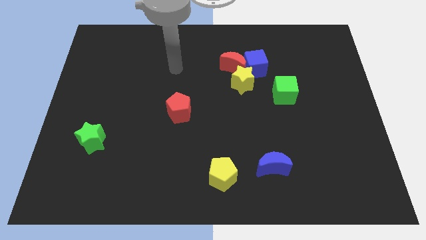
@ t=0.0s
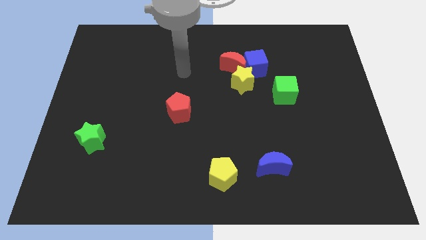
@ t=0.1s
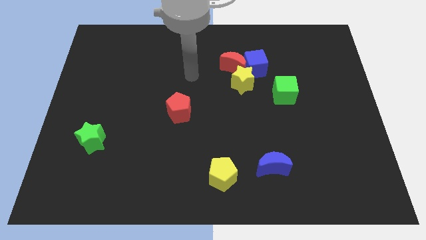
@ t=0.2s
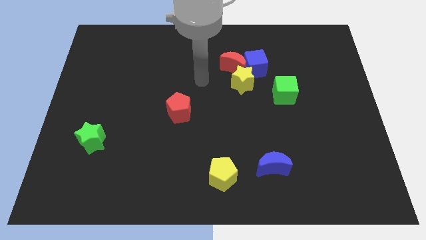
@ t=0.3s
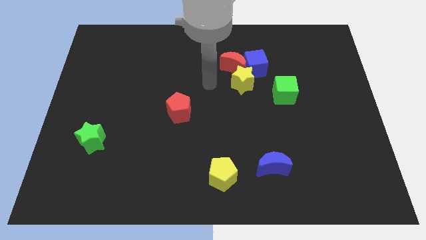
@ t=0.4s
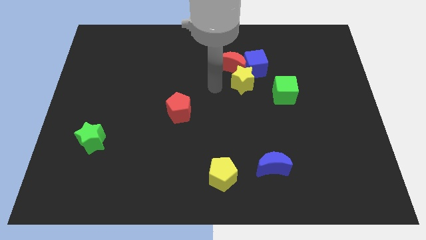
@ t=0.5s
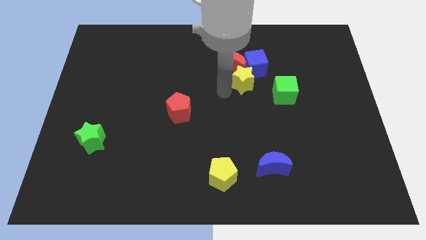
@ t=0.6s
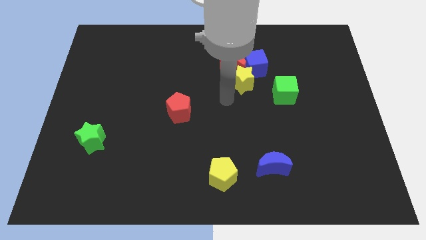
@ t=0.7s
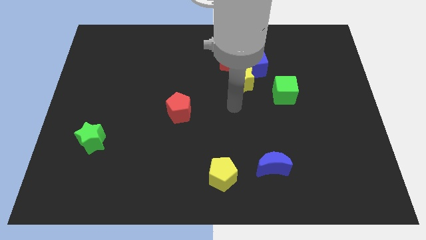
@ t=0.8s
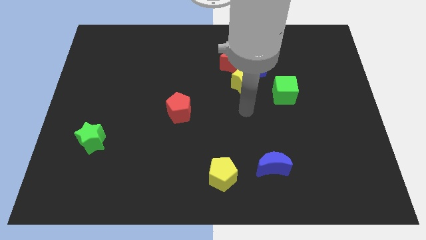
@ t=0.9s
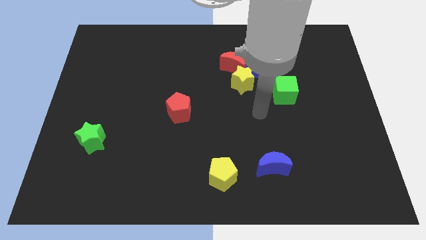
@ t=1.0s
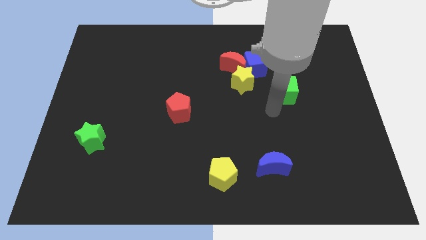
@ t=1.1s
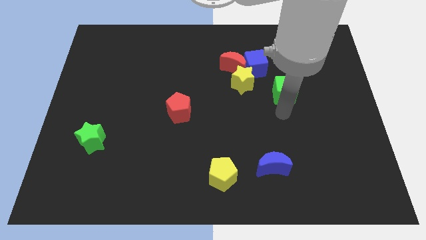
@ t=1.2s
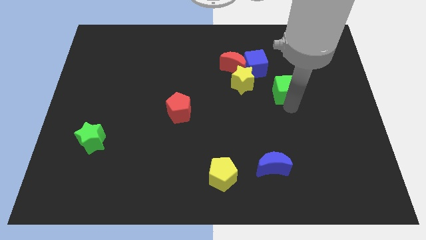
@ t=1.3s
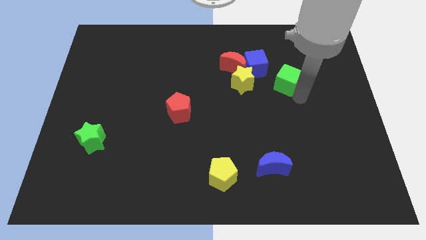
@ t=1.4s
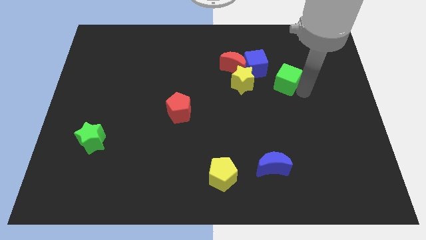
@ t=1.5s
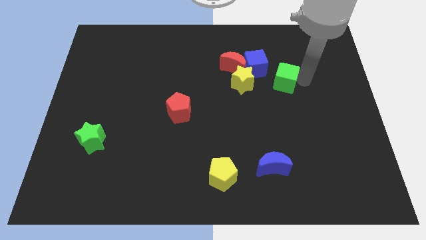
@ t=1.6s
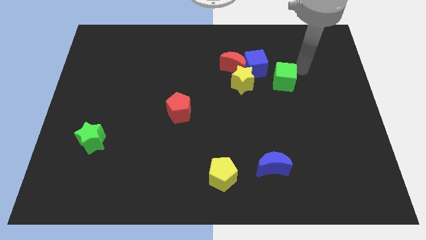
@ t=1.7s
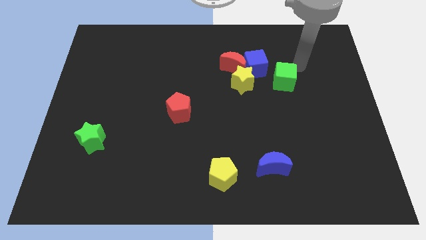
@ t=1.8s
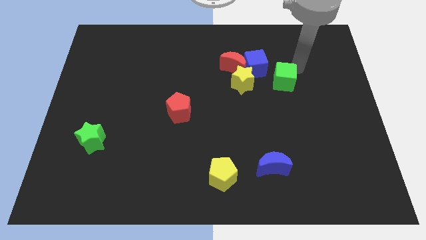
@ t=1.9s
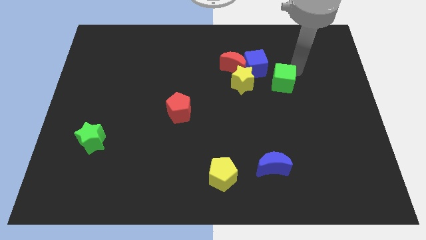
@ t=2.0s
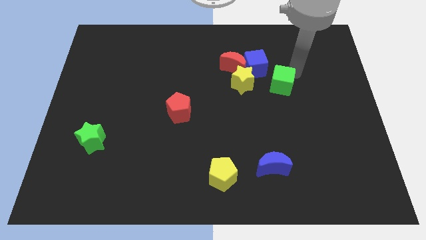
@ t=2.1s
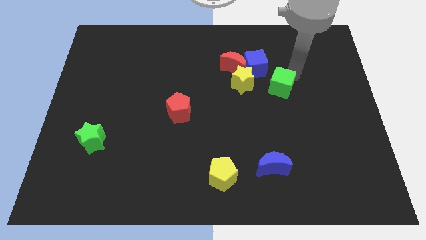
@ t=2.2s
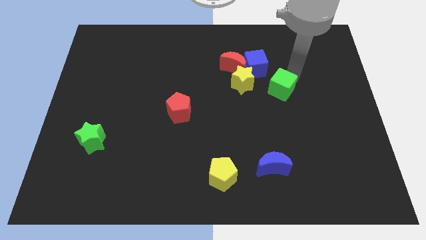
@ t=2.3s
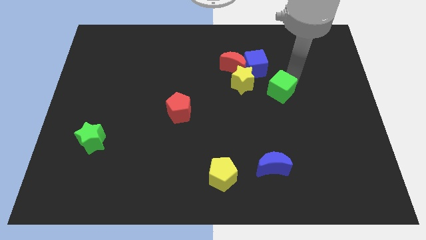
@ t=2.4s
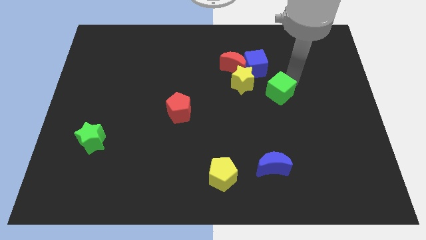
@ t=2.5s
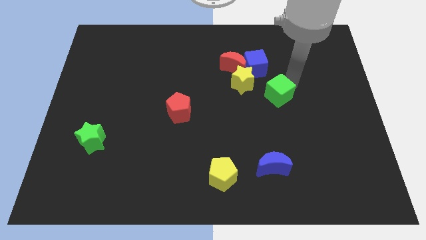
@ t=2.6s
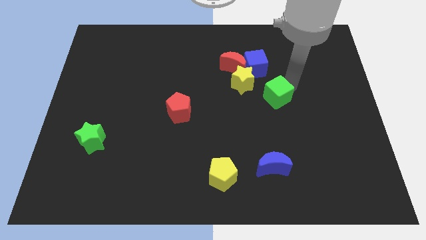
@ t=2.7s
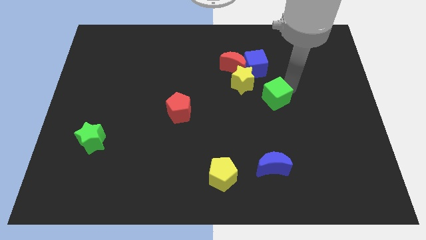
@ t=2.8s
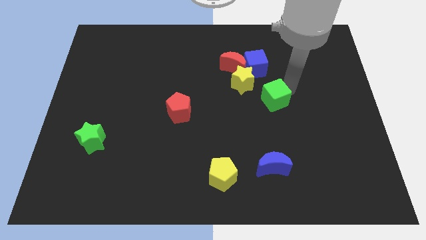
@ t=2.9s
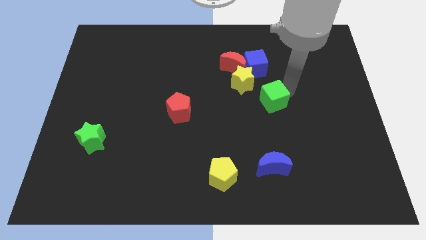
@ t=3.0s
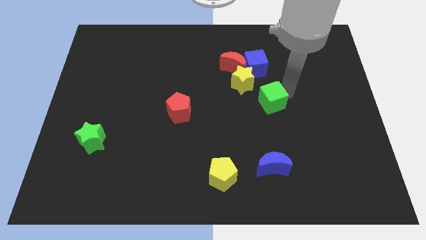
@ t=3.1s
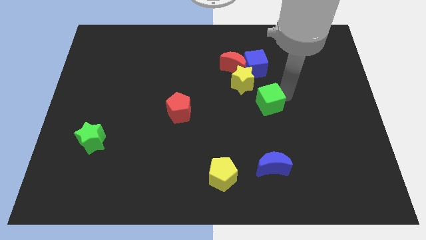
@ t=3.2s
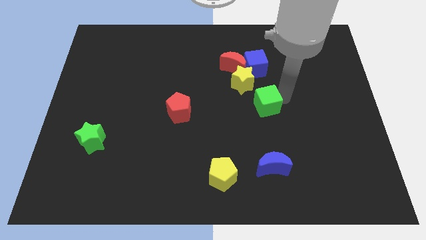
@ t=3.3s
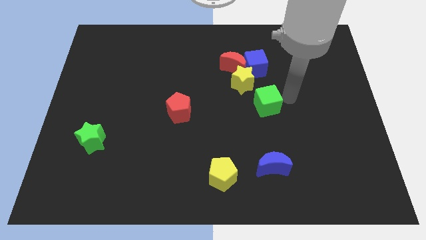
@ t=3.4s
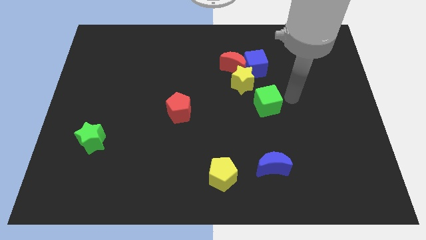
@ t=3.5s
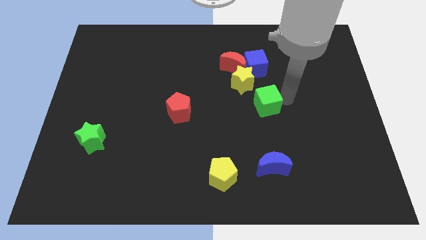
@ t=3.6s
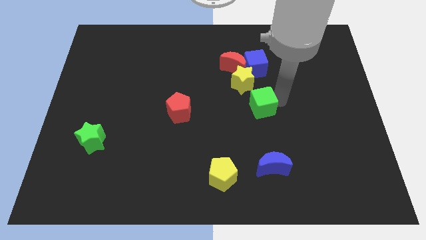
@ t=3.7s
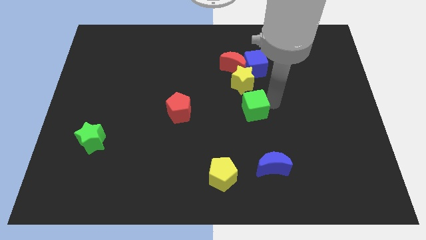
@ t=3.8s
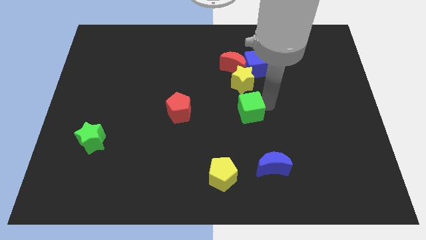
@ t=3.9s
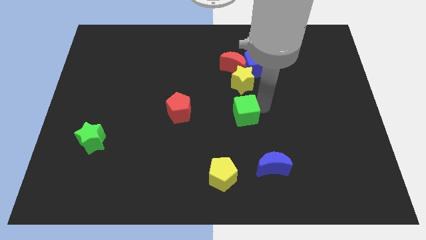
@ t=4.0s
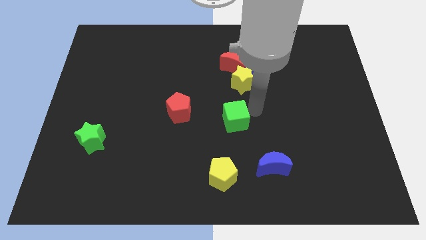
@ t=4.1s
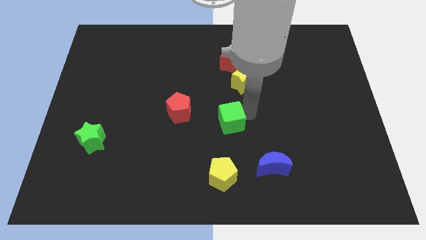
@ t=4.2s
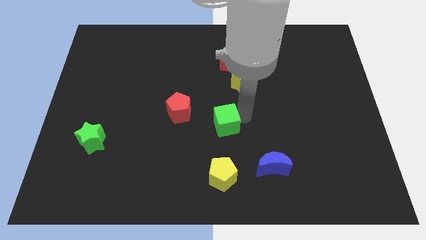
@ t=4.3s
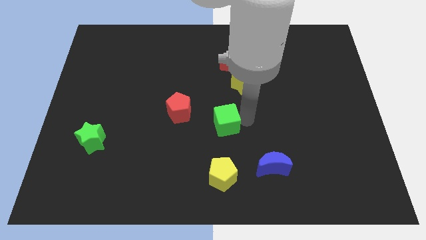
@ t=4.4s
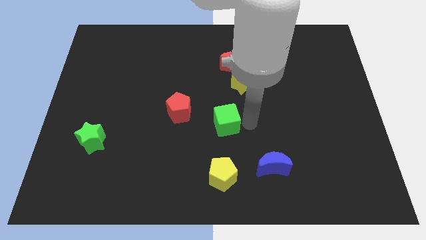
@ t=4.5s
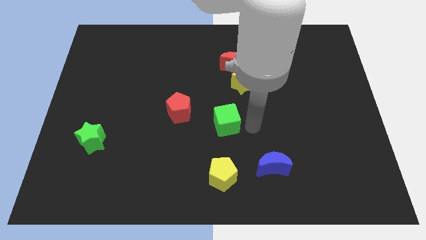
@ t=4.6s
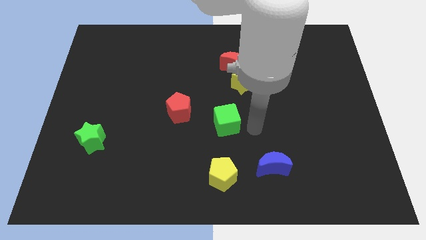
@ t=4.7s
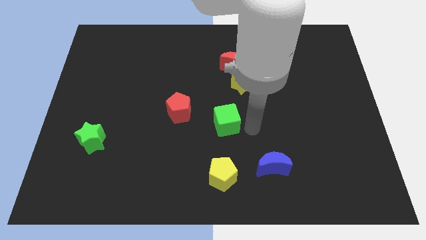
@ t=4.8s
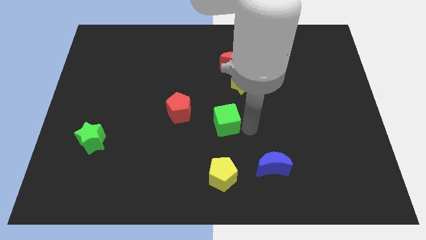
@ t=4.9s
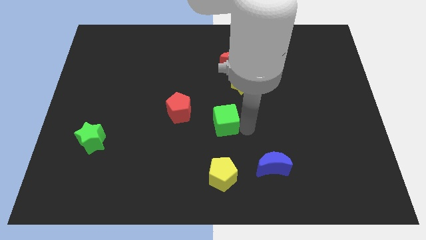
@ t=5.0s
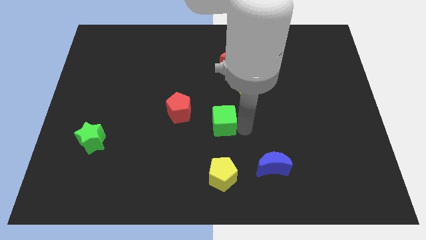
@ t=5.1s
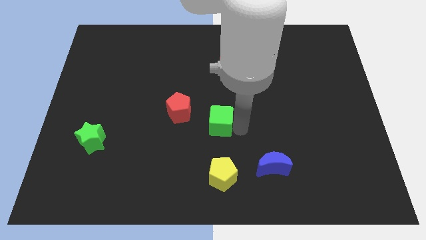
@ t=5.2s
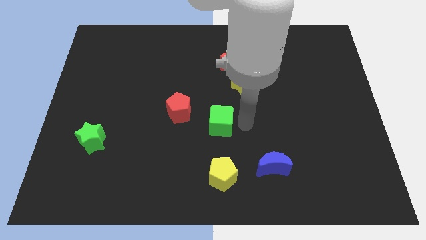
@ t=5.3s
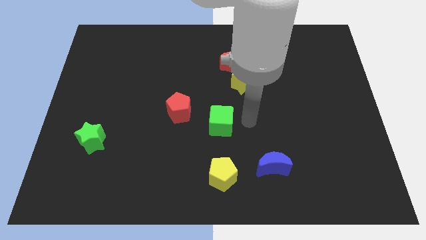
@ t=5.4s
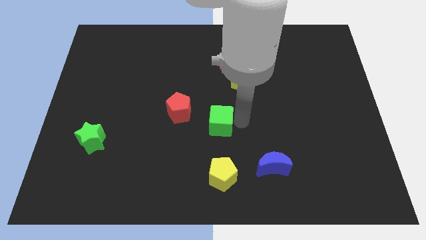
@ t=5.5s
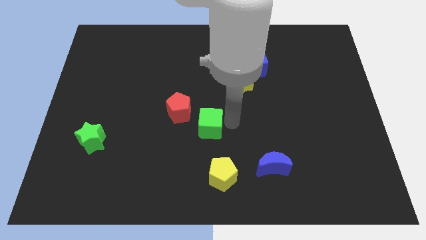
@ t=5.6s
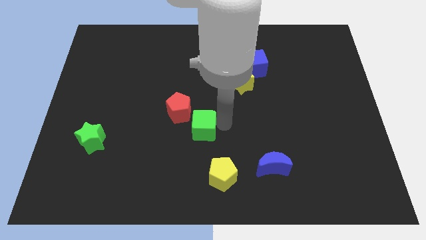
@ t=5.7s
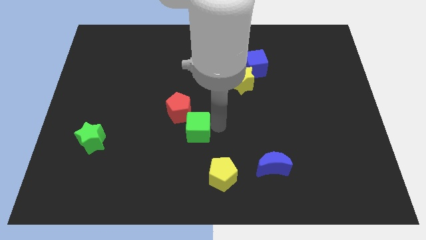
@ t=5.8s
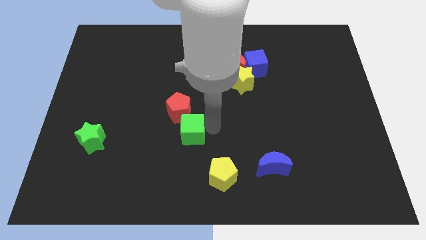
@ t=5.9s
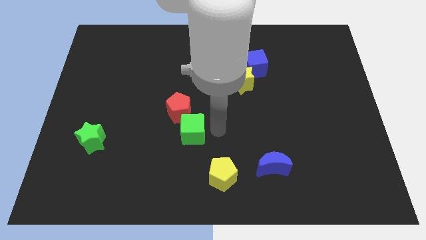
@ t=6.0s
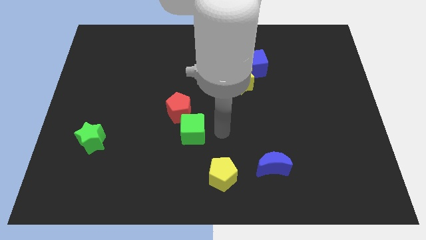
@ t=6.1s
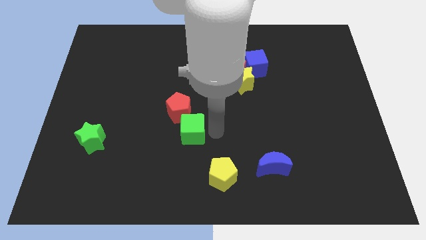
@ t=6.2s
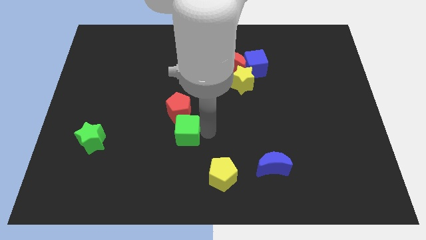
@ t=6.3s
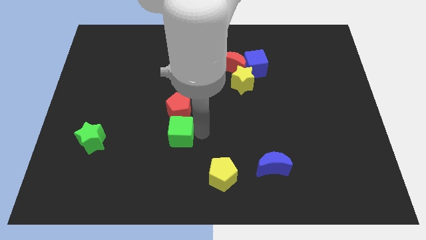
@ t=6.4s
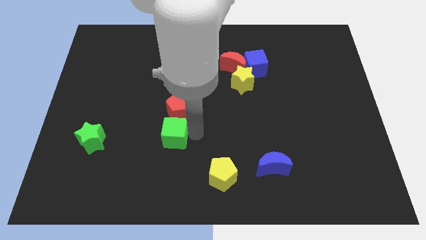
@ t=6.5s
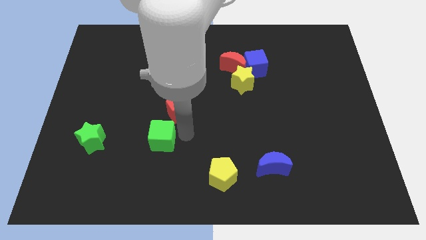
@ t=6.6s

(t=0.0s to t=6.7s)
move the green cube right of the green star

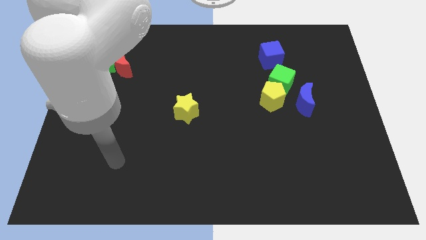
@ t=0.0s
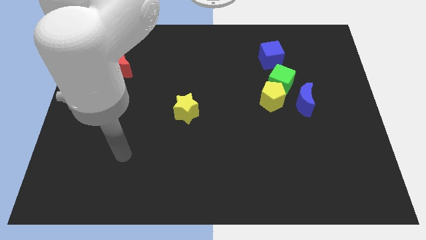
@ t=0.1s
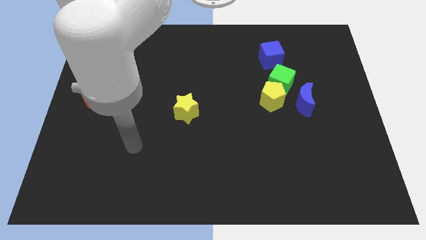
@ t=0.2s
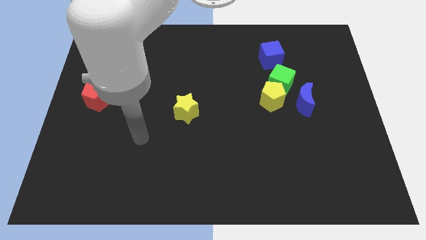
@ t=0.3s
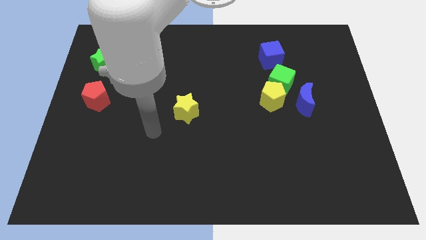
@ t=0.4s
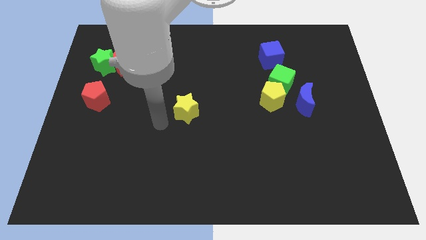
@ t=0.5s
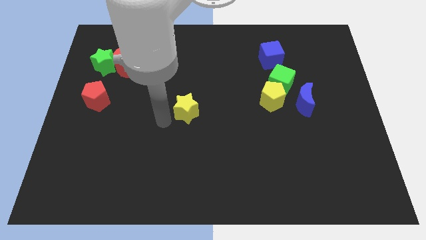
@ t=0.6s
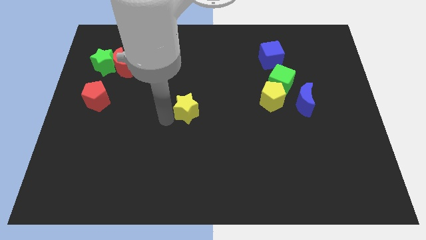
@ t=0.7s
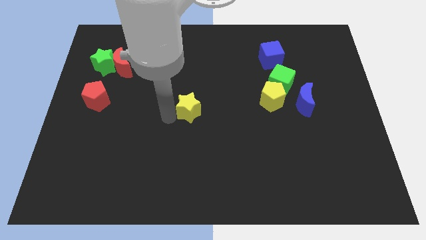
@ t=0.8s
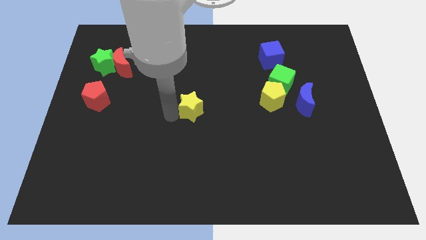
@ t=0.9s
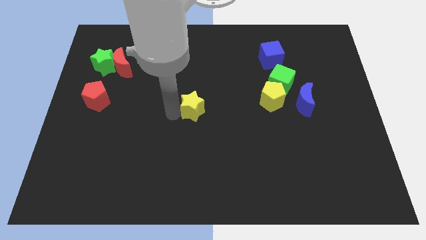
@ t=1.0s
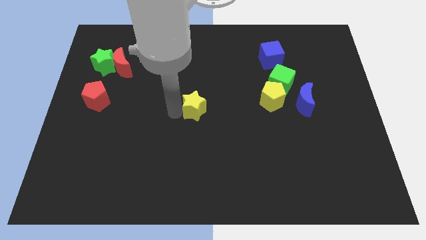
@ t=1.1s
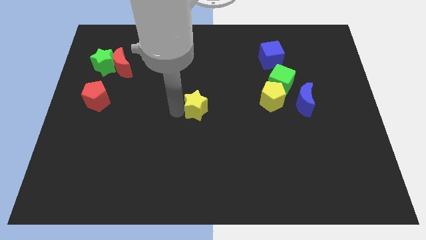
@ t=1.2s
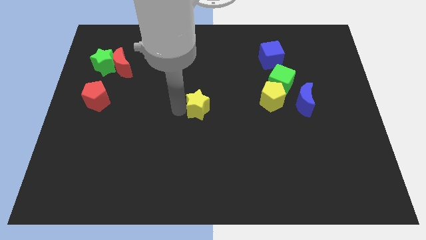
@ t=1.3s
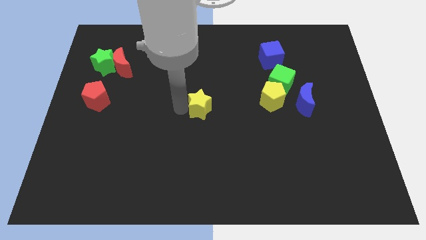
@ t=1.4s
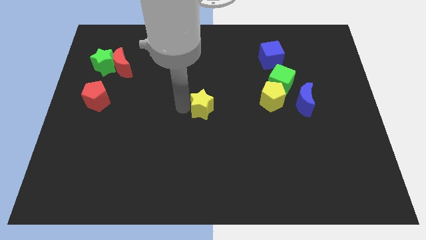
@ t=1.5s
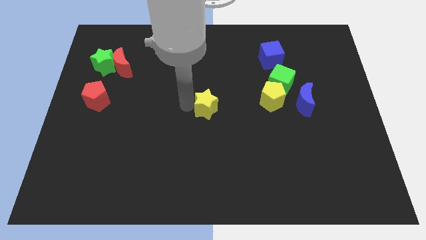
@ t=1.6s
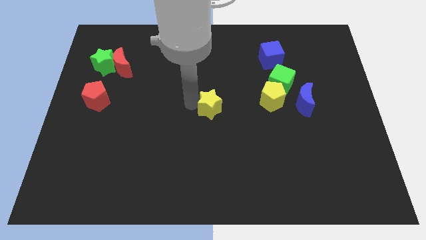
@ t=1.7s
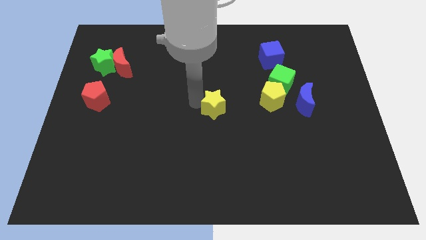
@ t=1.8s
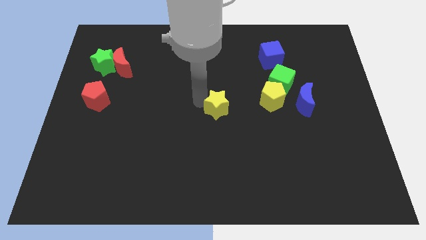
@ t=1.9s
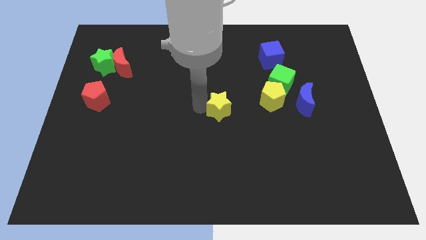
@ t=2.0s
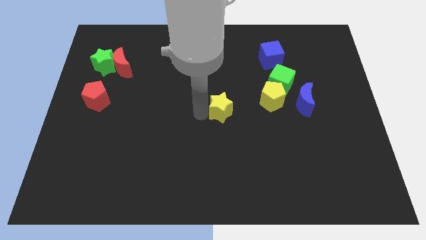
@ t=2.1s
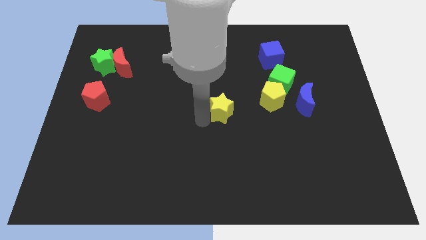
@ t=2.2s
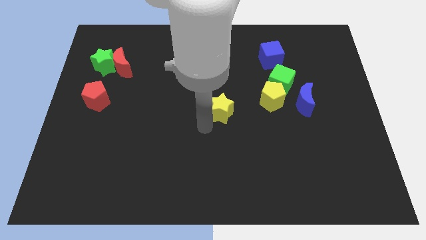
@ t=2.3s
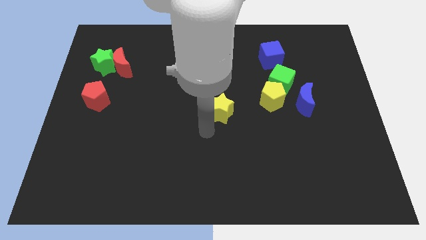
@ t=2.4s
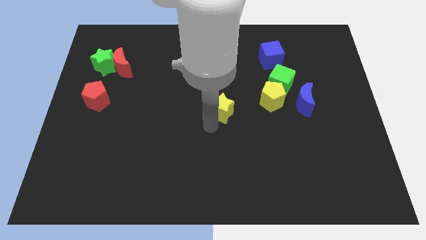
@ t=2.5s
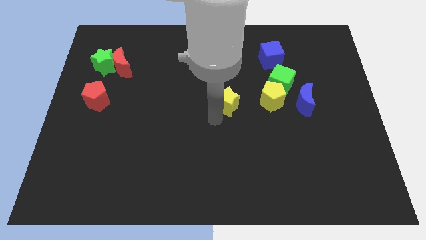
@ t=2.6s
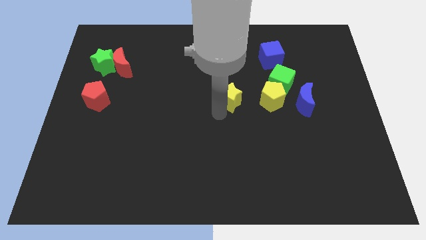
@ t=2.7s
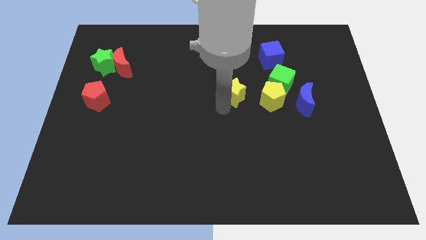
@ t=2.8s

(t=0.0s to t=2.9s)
put the yellow star to the left of the green cube
